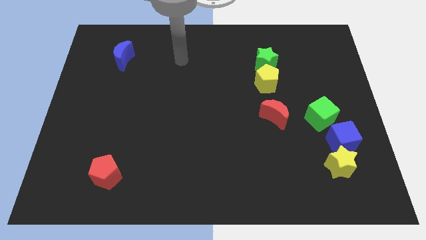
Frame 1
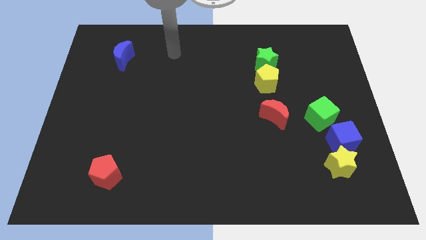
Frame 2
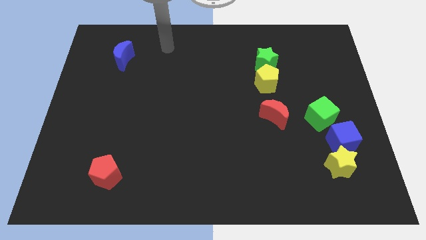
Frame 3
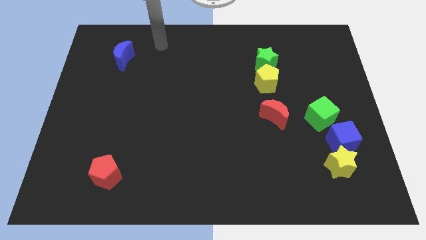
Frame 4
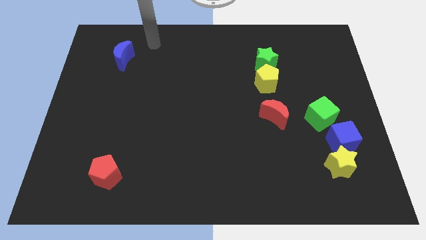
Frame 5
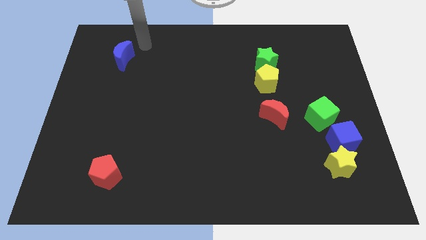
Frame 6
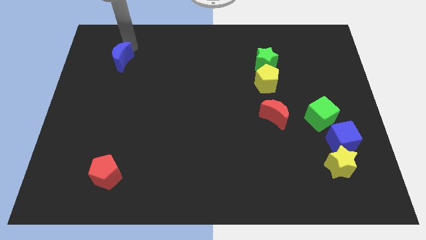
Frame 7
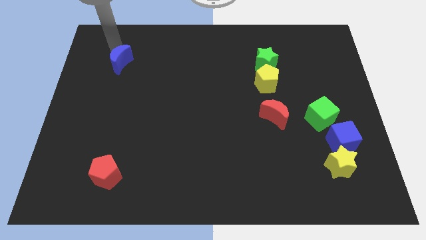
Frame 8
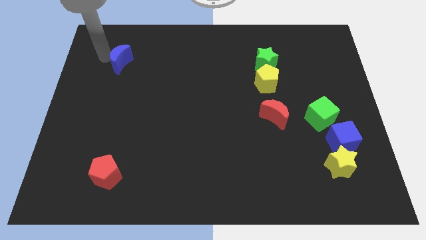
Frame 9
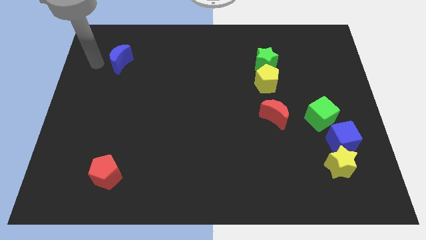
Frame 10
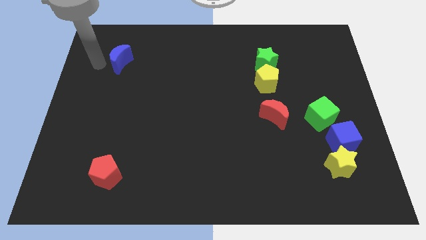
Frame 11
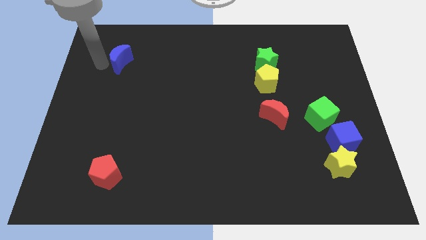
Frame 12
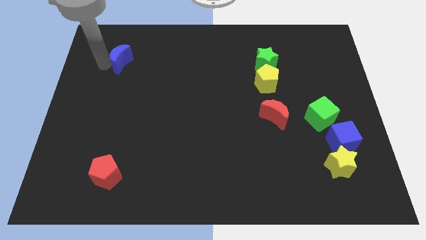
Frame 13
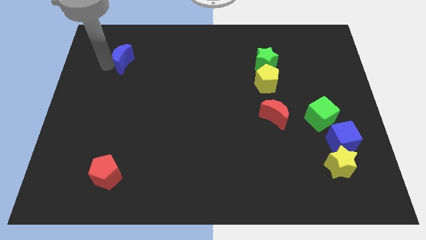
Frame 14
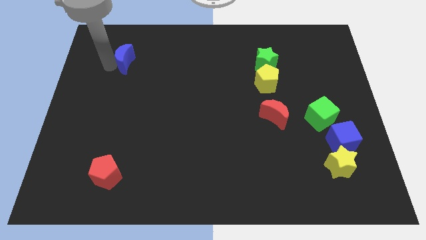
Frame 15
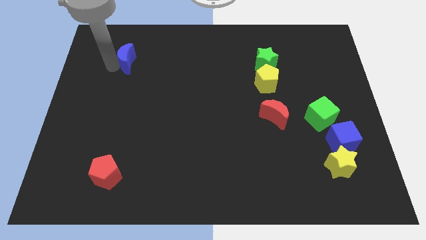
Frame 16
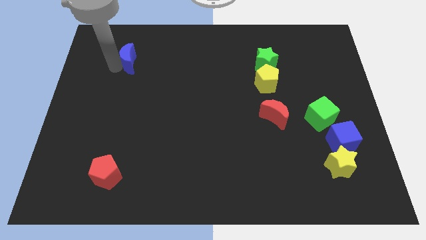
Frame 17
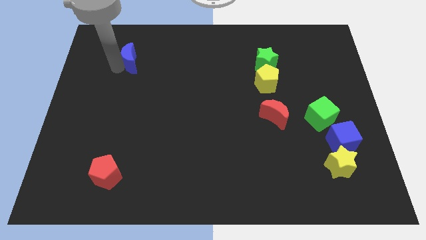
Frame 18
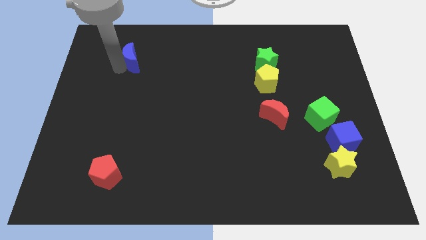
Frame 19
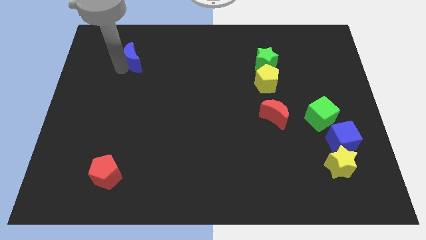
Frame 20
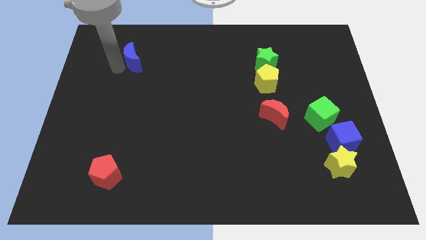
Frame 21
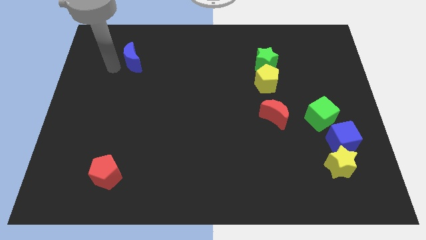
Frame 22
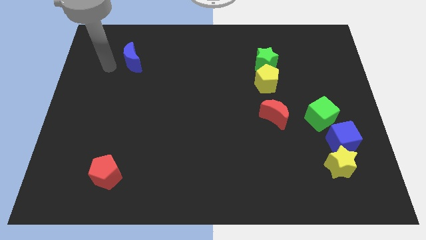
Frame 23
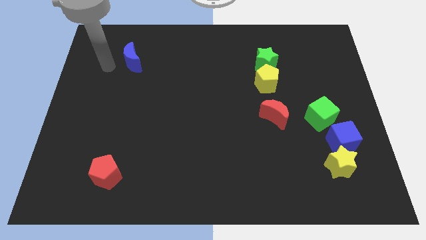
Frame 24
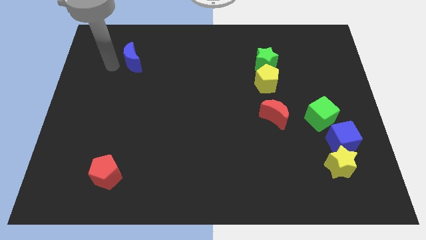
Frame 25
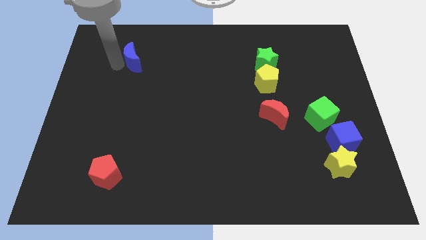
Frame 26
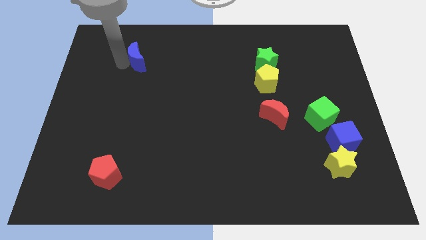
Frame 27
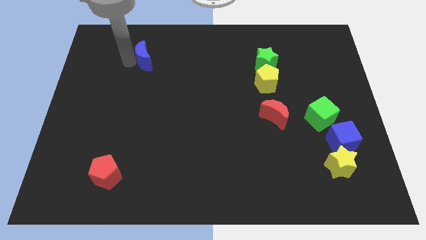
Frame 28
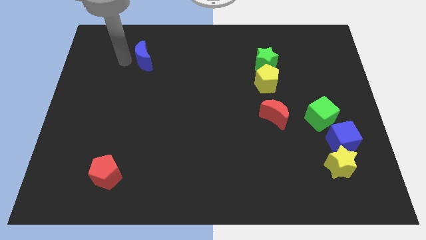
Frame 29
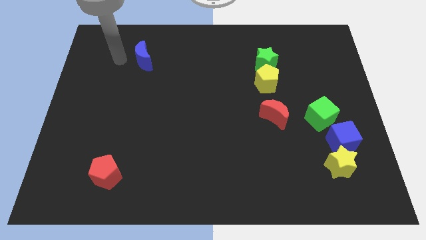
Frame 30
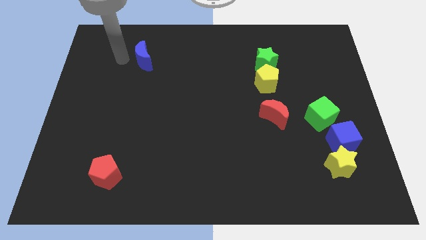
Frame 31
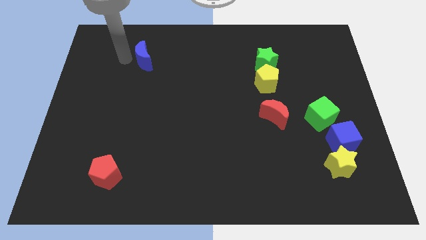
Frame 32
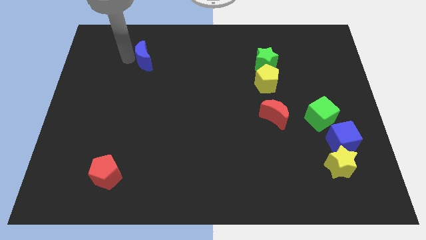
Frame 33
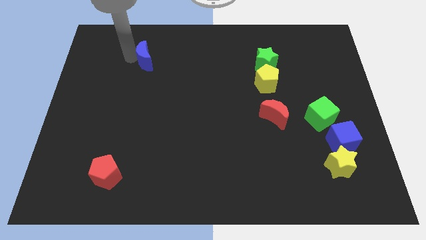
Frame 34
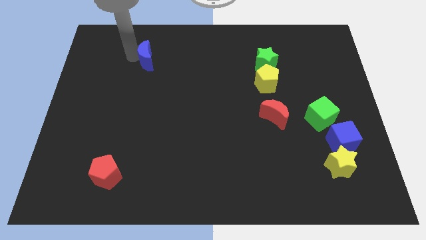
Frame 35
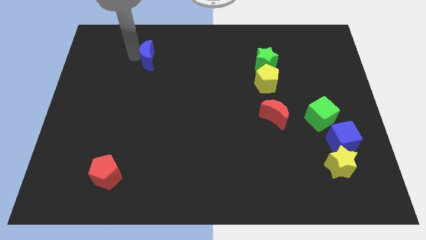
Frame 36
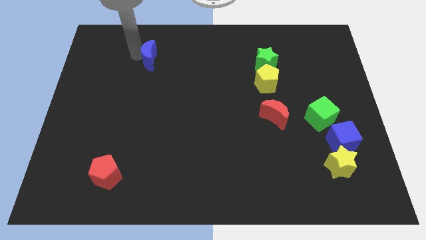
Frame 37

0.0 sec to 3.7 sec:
push the blue moon to the right a bit

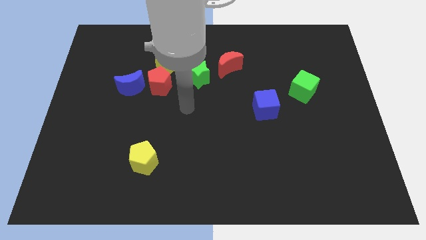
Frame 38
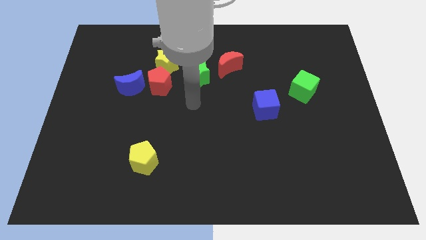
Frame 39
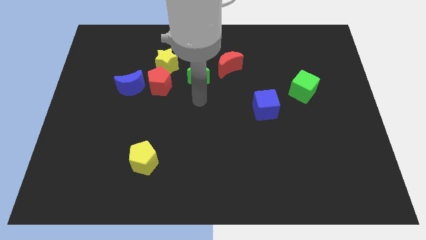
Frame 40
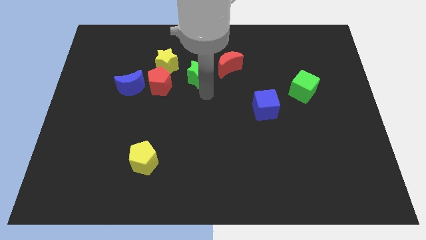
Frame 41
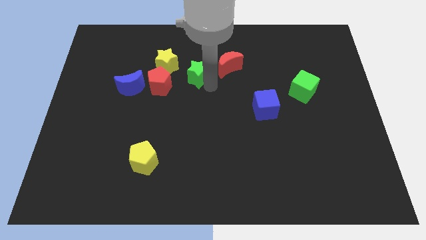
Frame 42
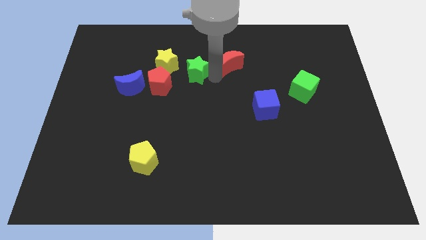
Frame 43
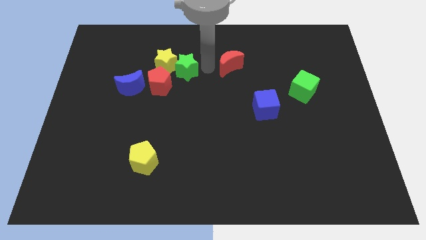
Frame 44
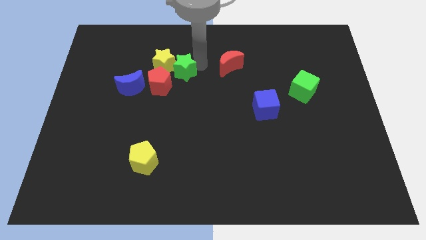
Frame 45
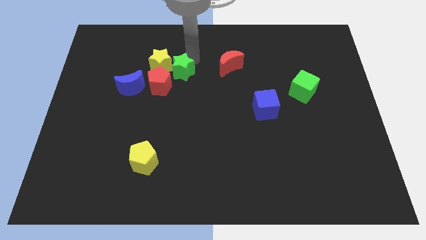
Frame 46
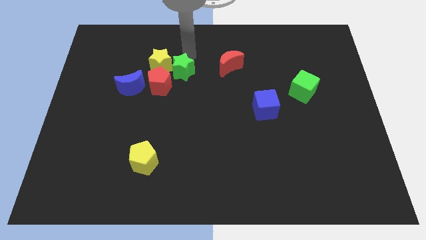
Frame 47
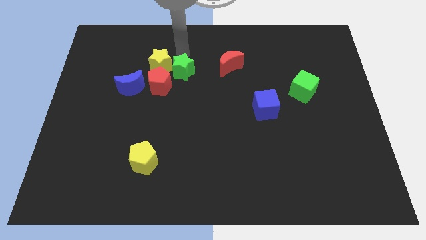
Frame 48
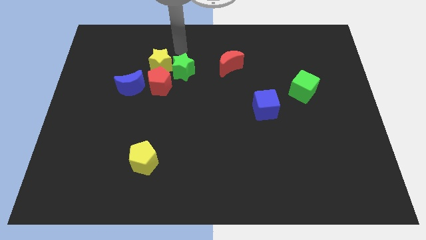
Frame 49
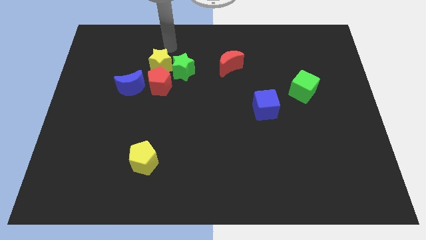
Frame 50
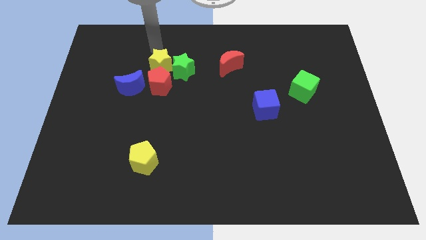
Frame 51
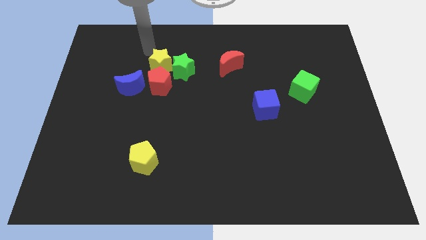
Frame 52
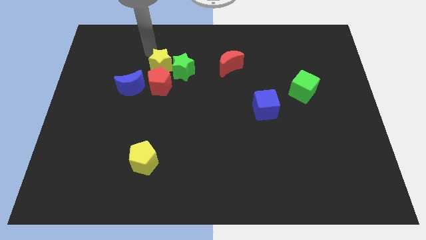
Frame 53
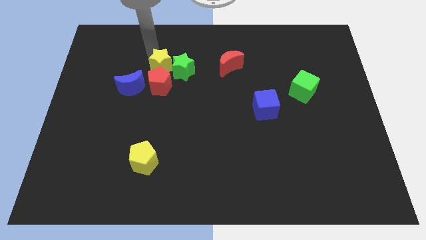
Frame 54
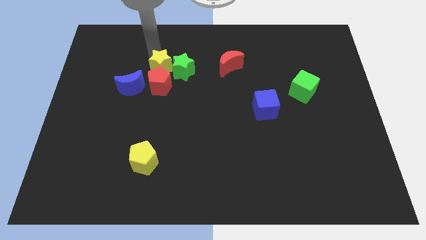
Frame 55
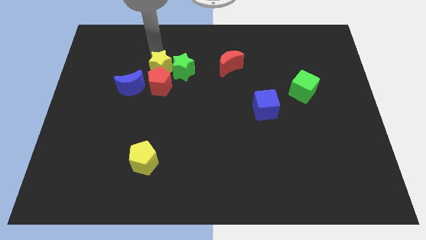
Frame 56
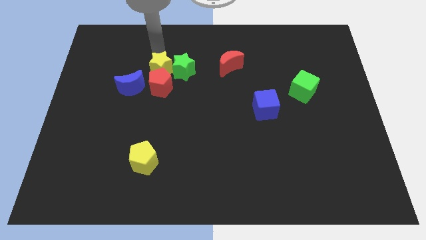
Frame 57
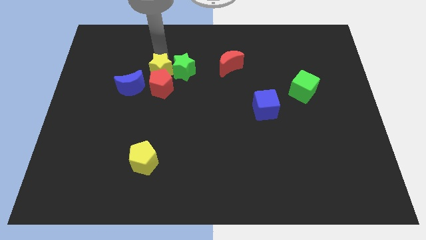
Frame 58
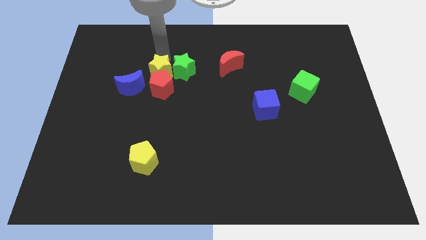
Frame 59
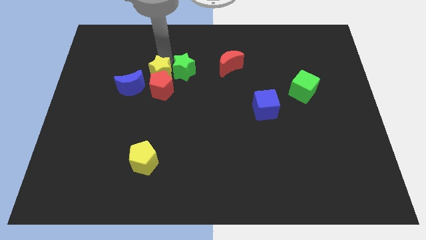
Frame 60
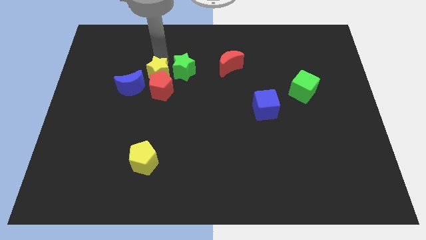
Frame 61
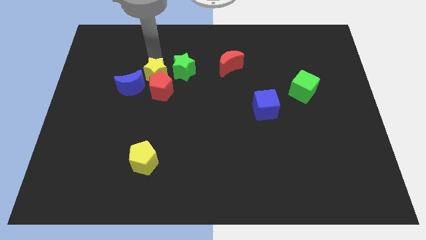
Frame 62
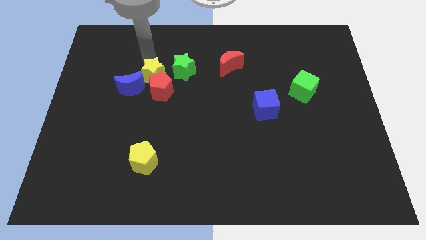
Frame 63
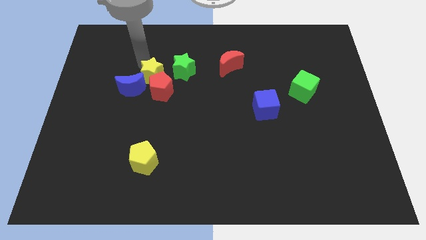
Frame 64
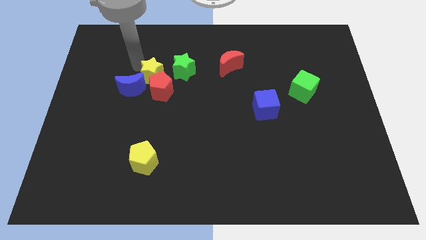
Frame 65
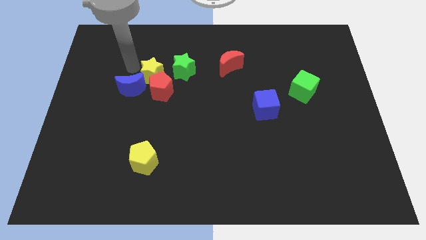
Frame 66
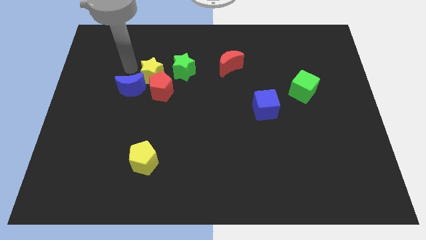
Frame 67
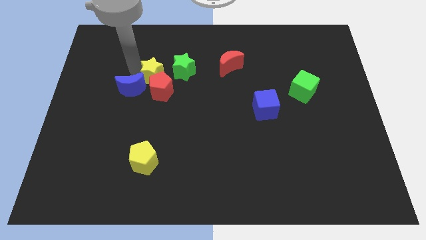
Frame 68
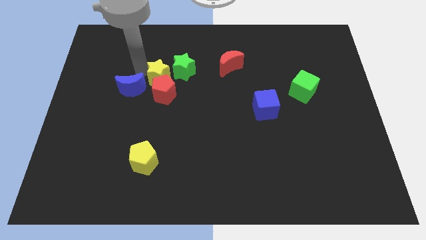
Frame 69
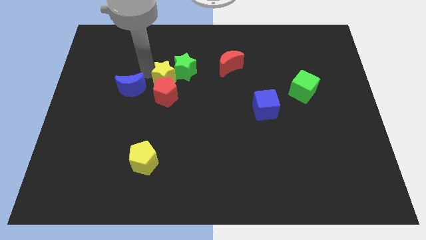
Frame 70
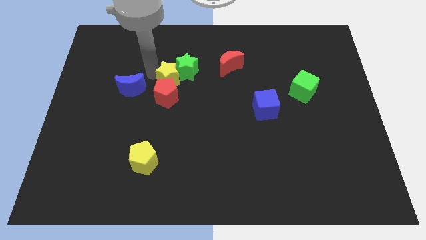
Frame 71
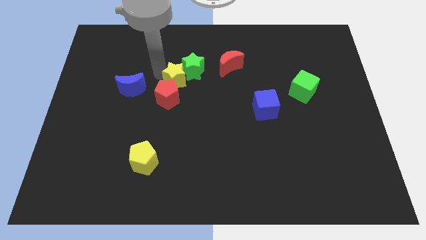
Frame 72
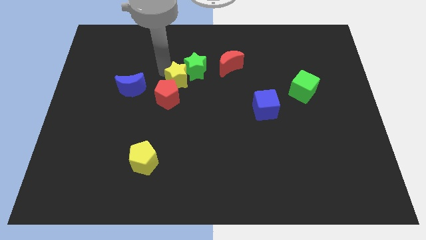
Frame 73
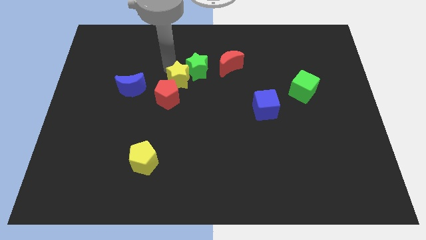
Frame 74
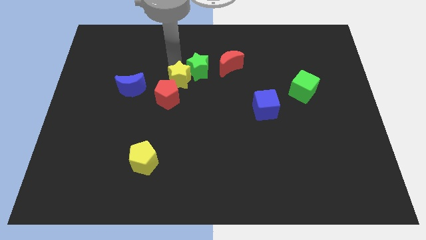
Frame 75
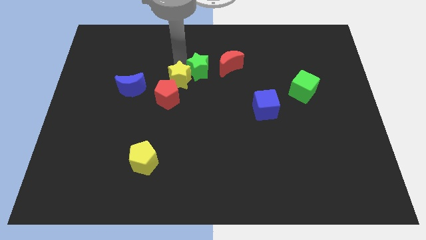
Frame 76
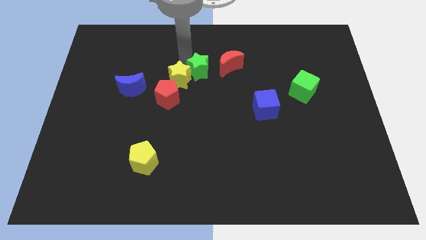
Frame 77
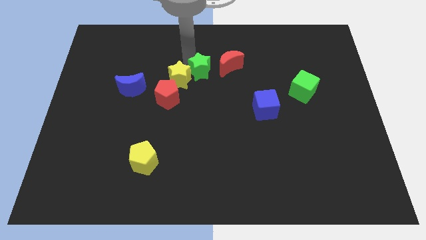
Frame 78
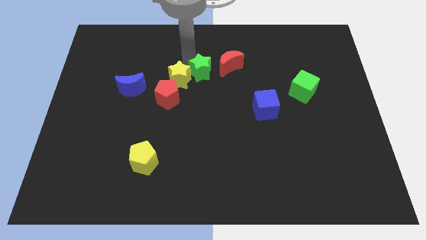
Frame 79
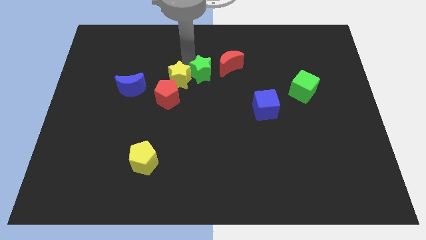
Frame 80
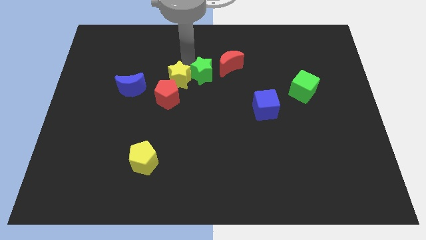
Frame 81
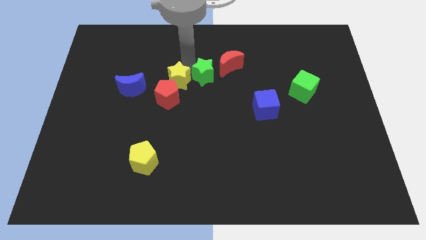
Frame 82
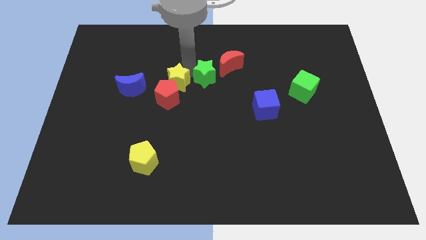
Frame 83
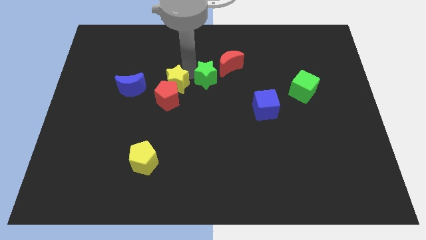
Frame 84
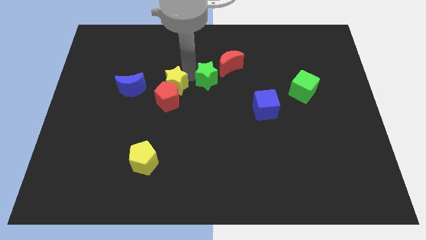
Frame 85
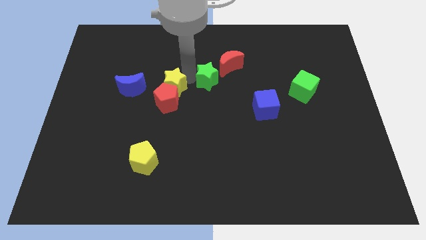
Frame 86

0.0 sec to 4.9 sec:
slide the yellow star a little bit down
